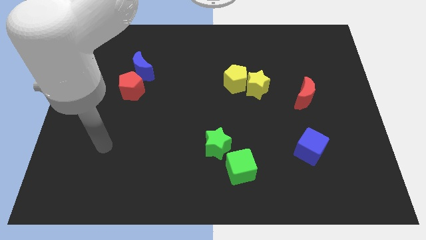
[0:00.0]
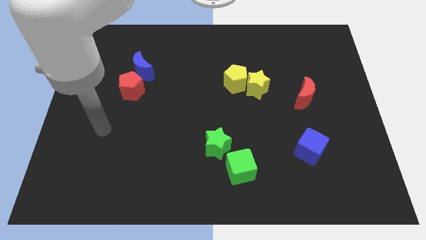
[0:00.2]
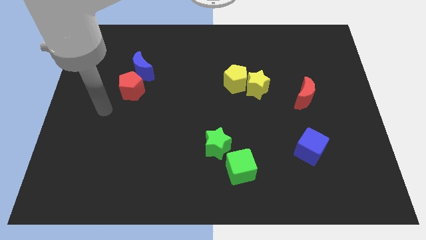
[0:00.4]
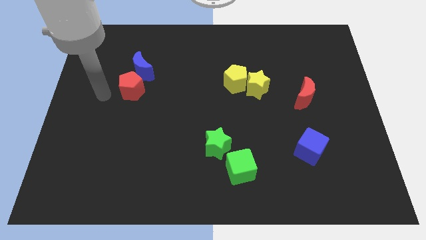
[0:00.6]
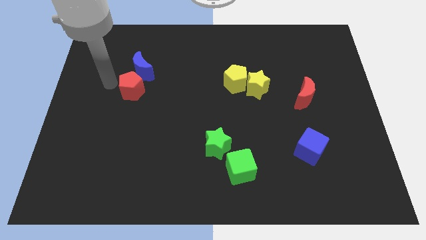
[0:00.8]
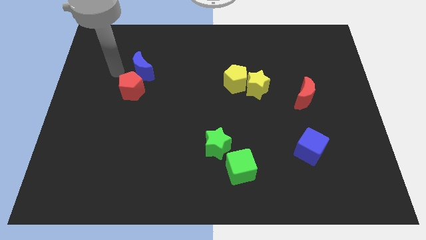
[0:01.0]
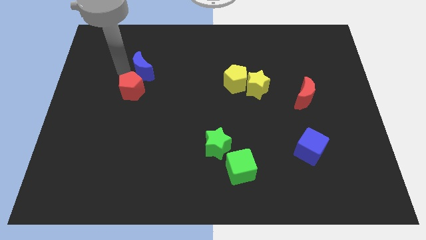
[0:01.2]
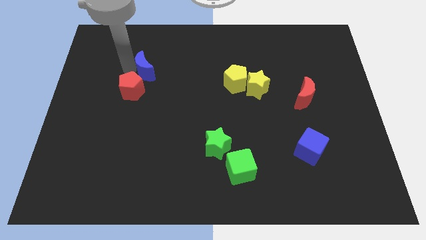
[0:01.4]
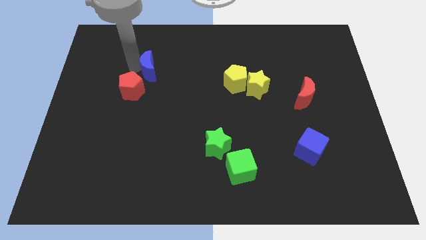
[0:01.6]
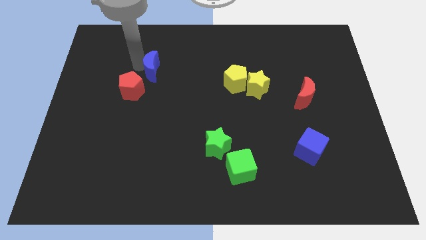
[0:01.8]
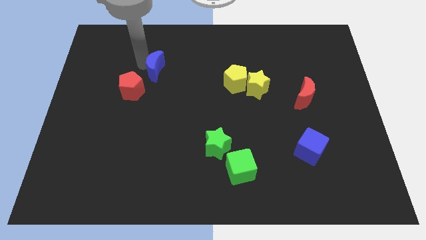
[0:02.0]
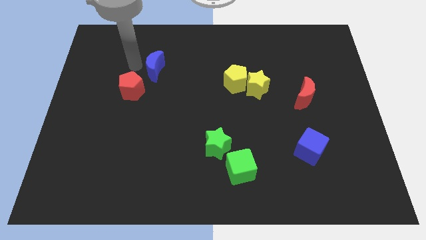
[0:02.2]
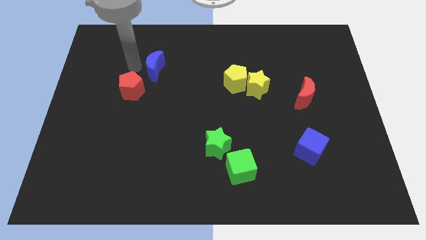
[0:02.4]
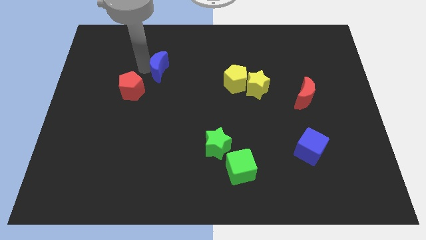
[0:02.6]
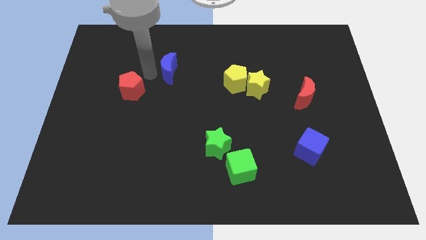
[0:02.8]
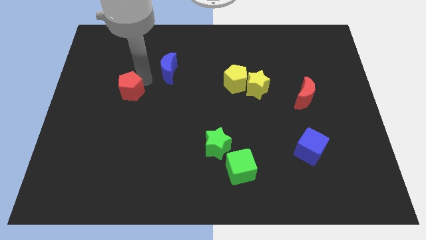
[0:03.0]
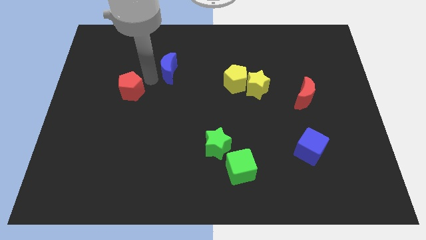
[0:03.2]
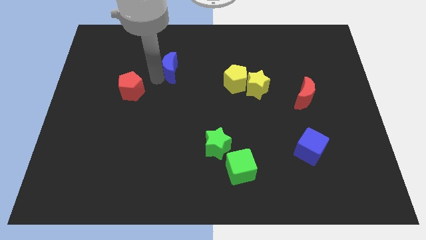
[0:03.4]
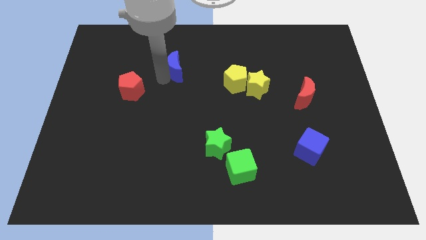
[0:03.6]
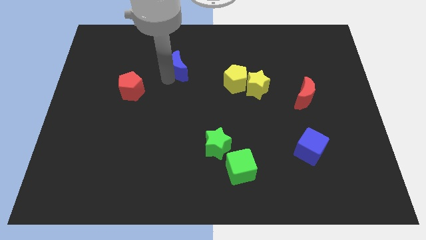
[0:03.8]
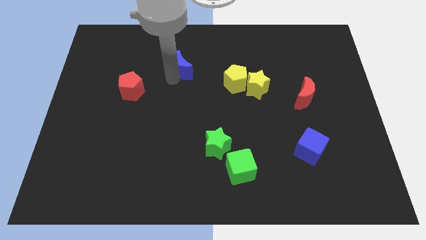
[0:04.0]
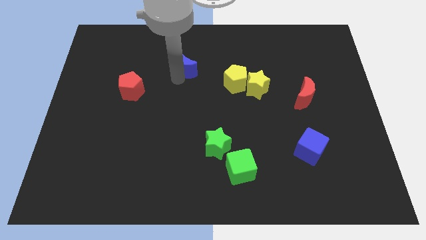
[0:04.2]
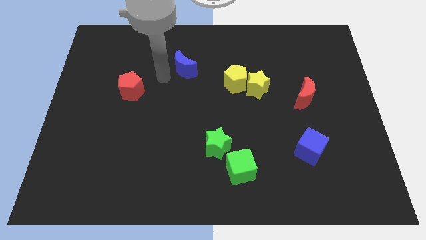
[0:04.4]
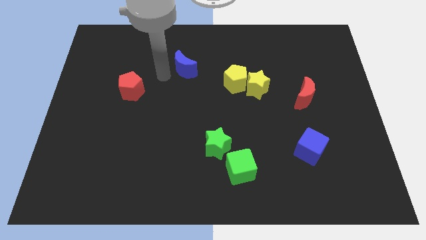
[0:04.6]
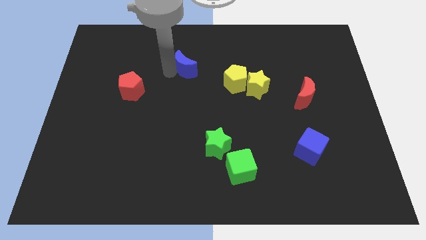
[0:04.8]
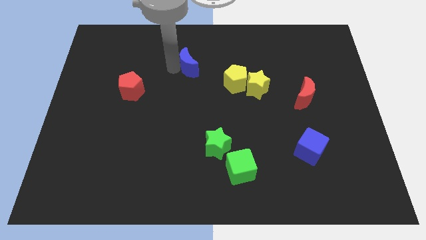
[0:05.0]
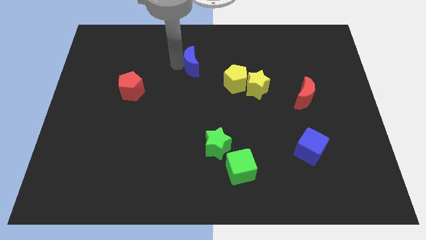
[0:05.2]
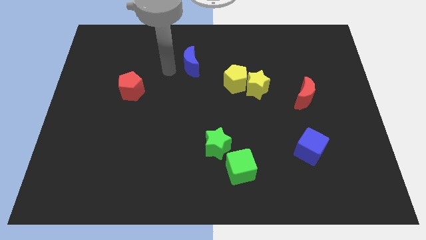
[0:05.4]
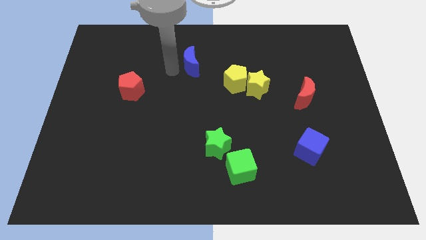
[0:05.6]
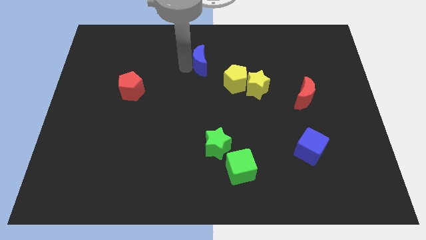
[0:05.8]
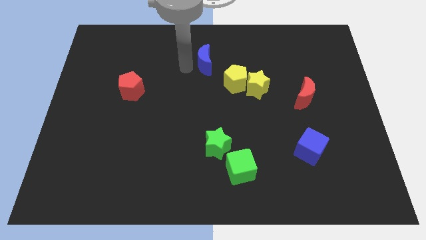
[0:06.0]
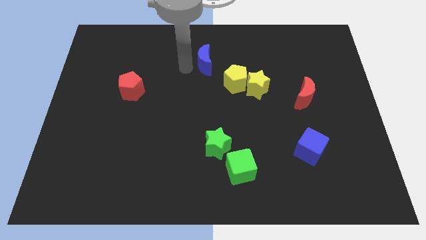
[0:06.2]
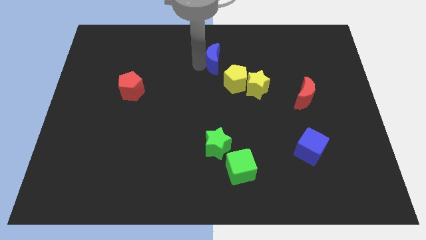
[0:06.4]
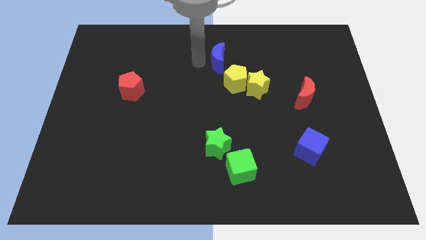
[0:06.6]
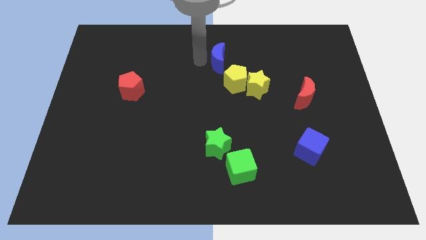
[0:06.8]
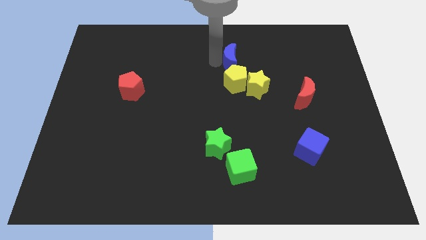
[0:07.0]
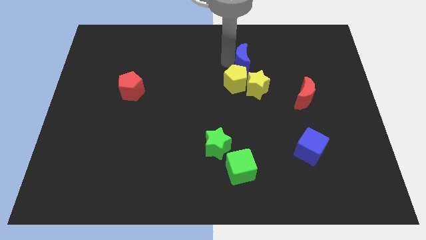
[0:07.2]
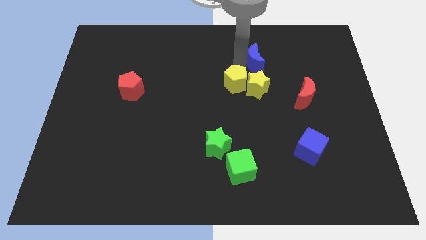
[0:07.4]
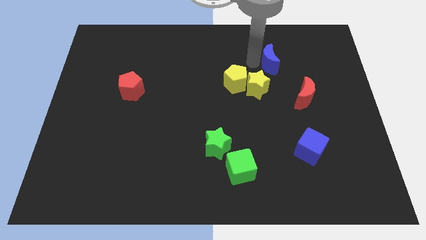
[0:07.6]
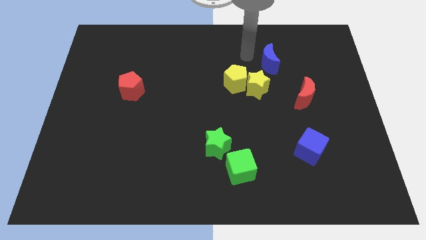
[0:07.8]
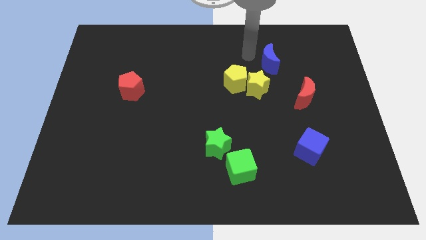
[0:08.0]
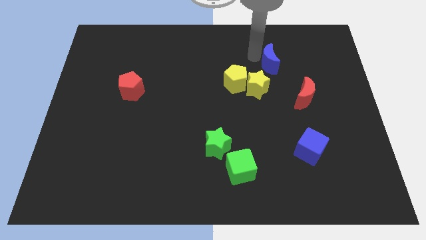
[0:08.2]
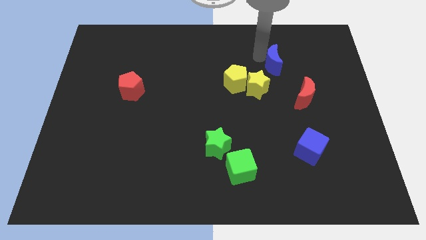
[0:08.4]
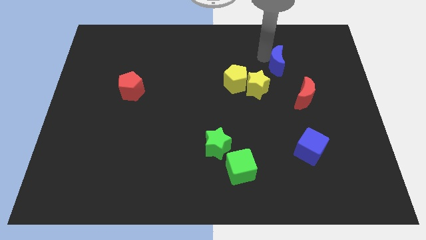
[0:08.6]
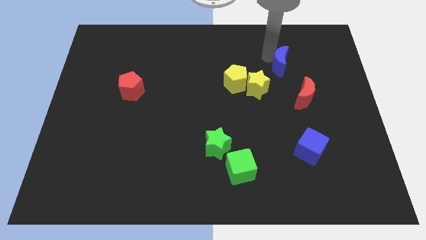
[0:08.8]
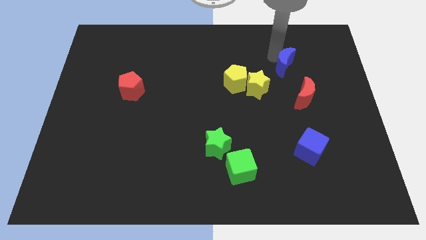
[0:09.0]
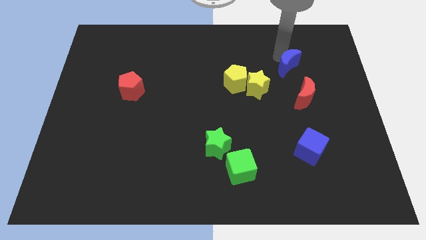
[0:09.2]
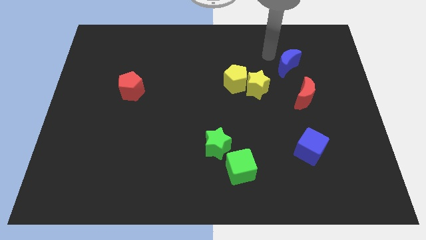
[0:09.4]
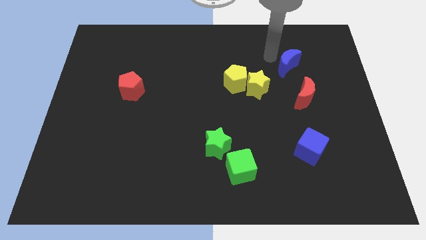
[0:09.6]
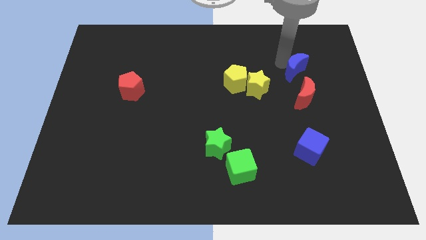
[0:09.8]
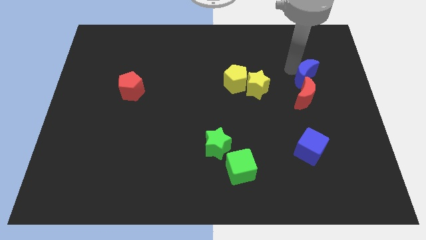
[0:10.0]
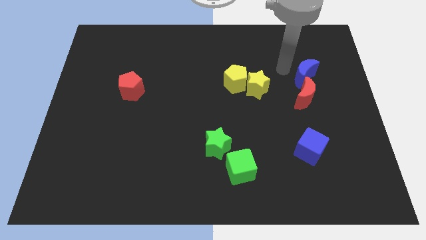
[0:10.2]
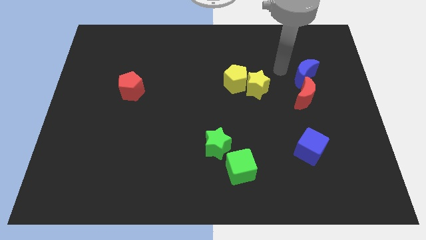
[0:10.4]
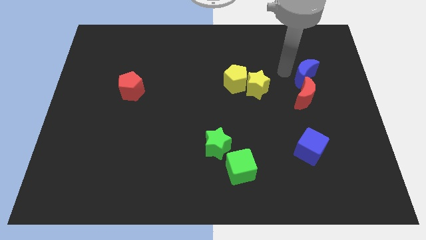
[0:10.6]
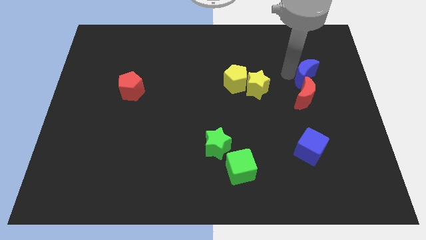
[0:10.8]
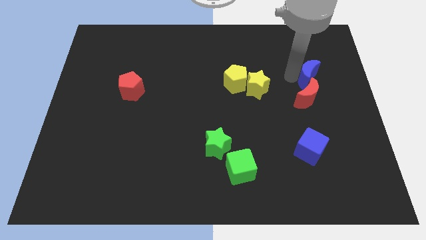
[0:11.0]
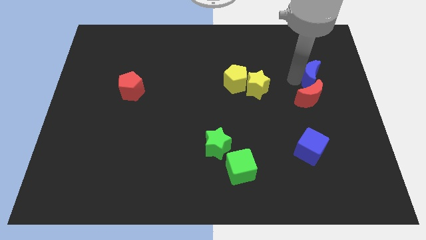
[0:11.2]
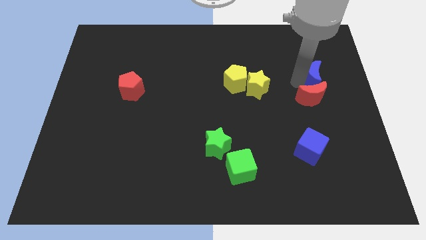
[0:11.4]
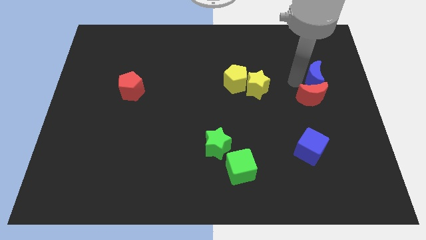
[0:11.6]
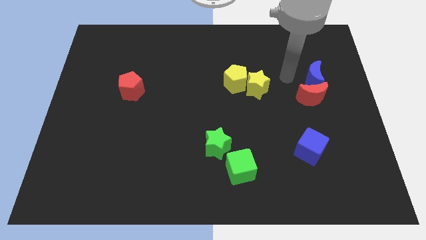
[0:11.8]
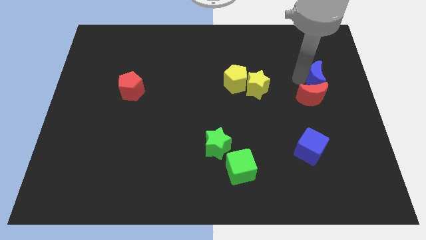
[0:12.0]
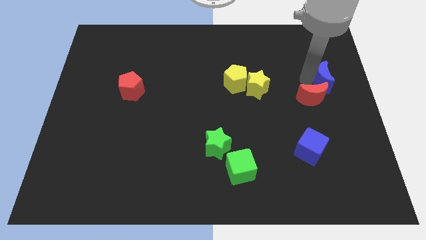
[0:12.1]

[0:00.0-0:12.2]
slide the blue moon to the center right
